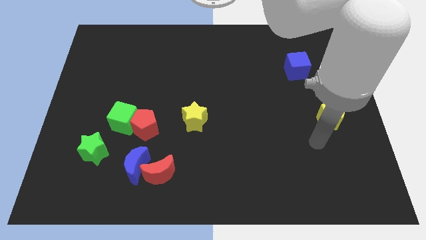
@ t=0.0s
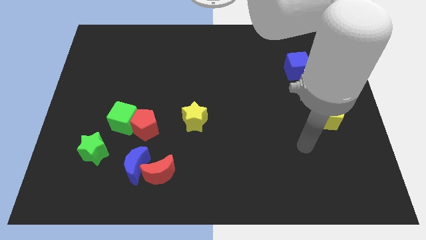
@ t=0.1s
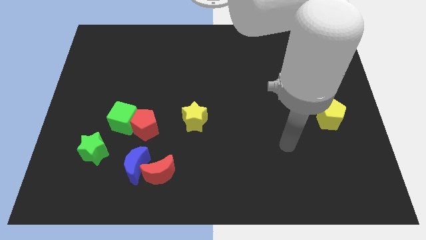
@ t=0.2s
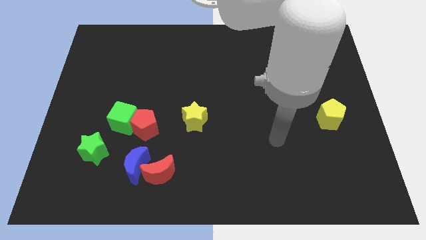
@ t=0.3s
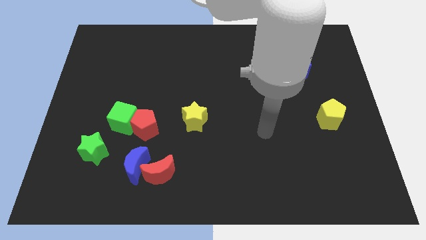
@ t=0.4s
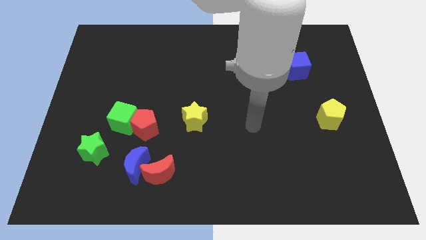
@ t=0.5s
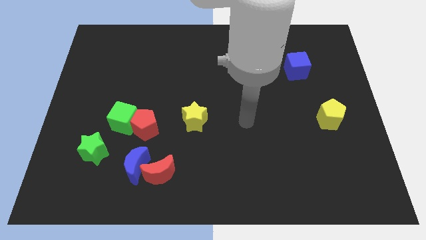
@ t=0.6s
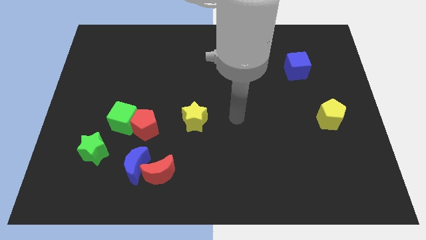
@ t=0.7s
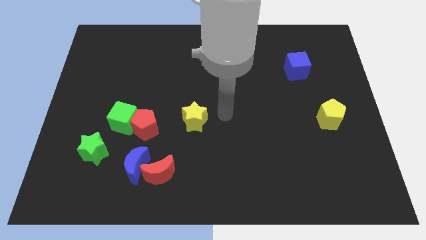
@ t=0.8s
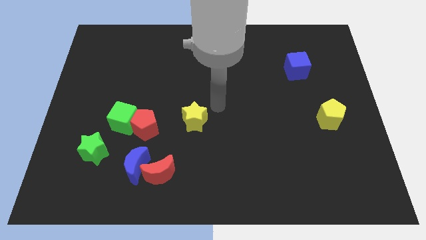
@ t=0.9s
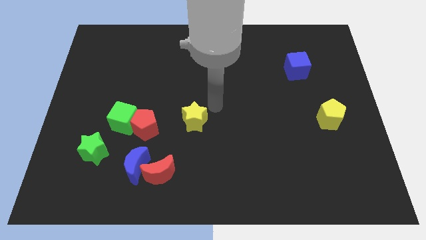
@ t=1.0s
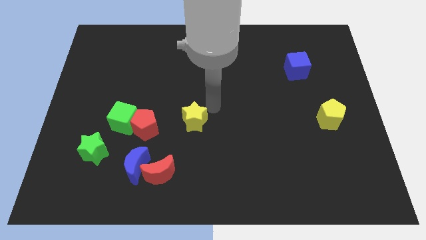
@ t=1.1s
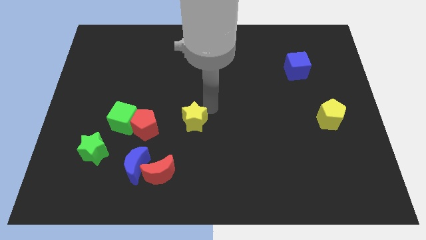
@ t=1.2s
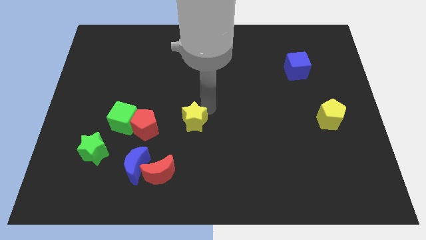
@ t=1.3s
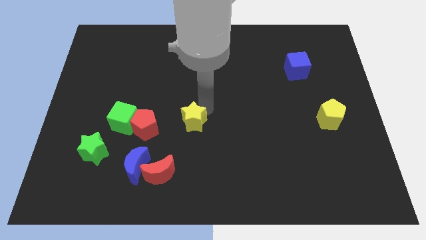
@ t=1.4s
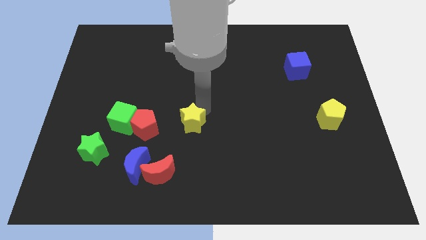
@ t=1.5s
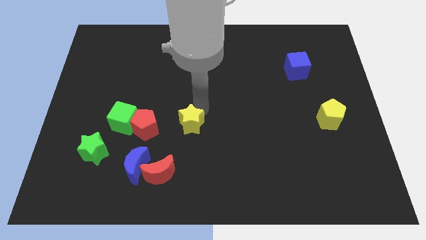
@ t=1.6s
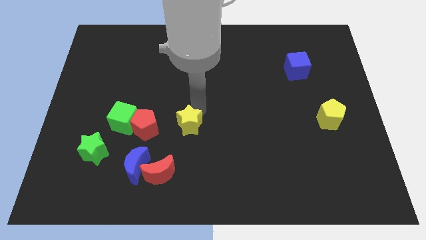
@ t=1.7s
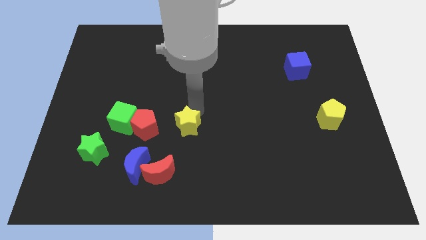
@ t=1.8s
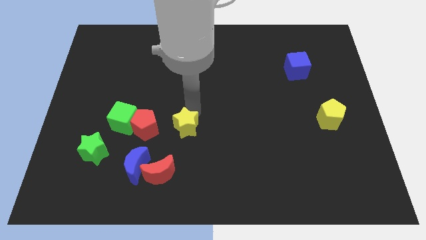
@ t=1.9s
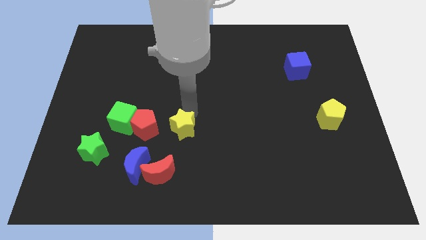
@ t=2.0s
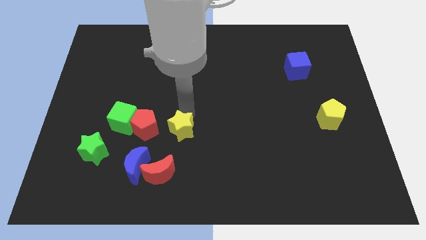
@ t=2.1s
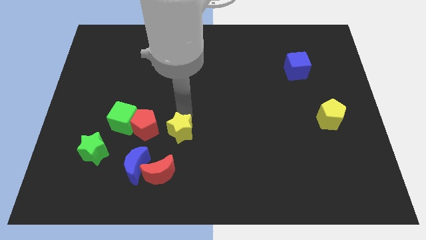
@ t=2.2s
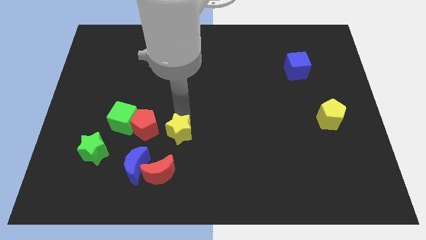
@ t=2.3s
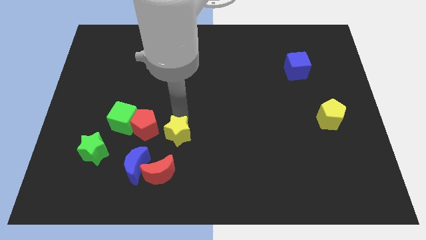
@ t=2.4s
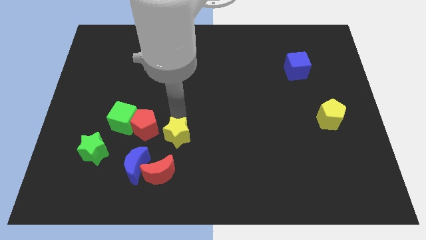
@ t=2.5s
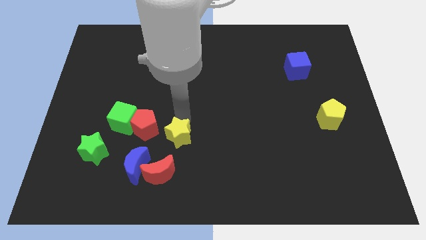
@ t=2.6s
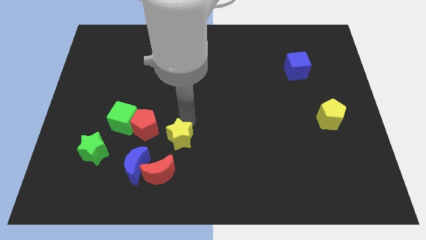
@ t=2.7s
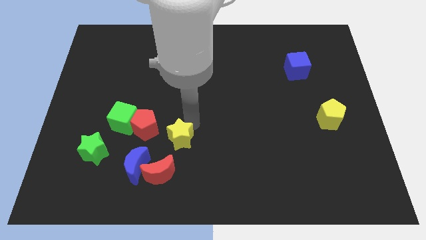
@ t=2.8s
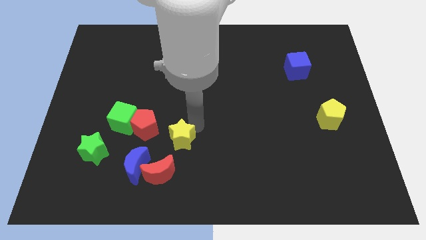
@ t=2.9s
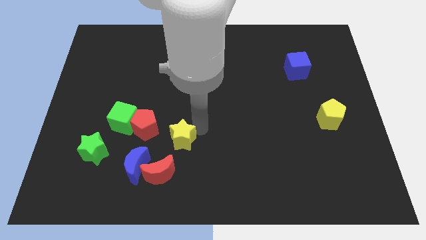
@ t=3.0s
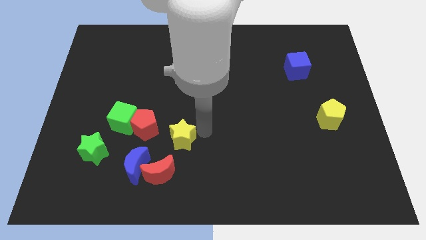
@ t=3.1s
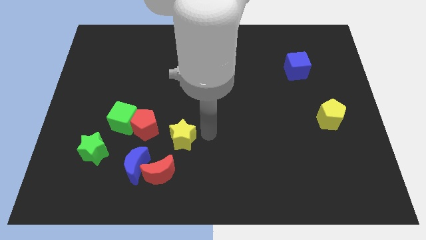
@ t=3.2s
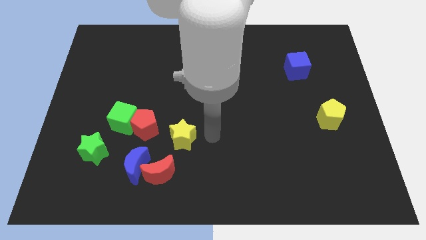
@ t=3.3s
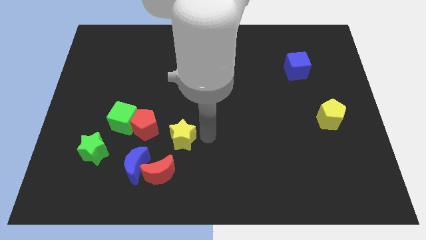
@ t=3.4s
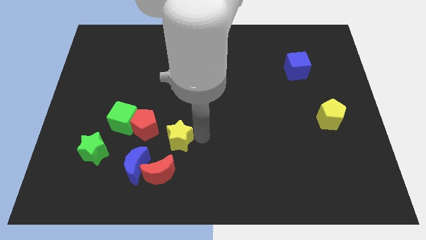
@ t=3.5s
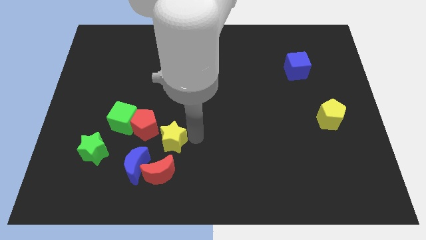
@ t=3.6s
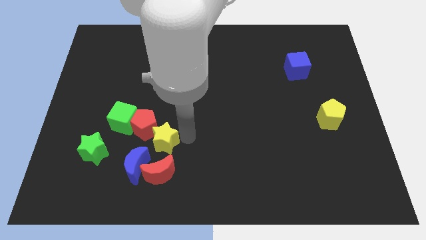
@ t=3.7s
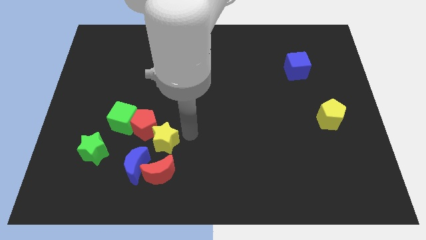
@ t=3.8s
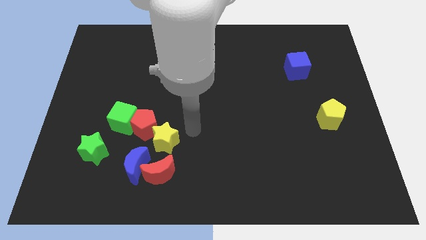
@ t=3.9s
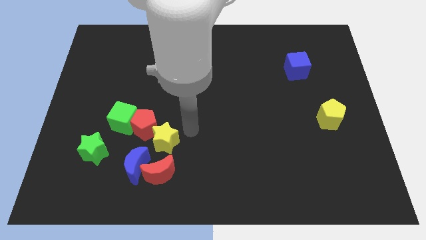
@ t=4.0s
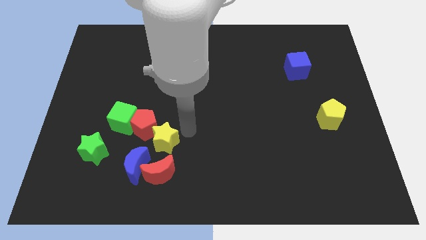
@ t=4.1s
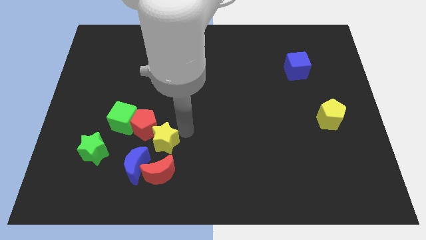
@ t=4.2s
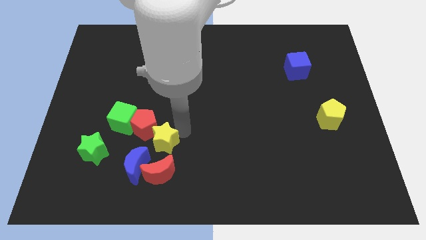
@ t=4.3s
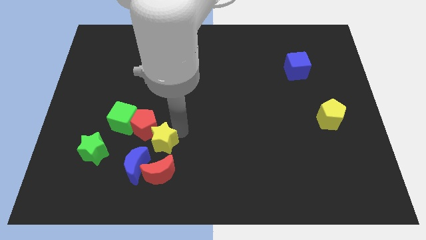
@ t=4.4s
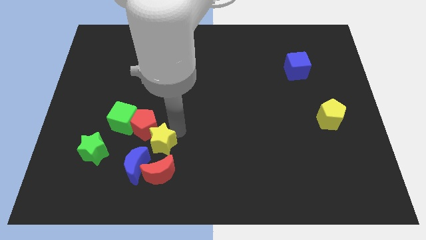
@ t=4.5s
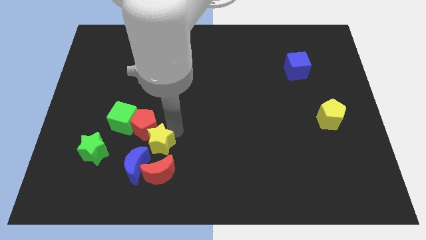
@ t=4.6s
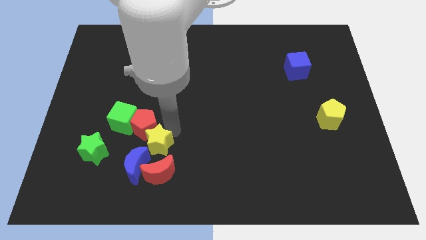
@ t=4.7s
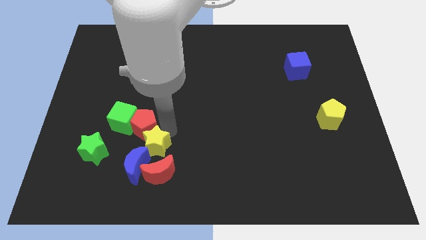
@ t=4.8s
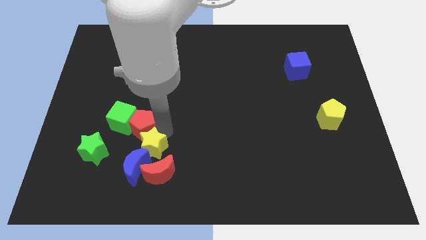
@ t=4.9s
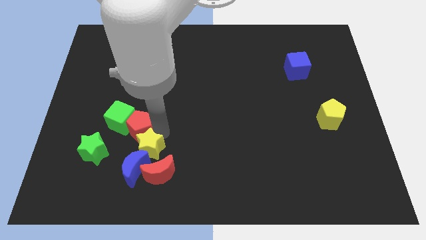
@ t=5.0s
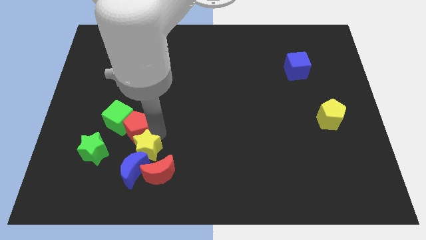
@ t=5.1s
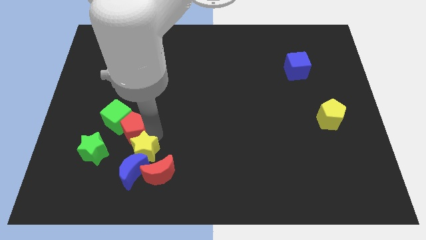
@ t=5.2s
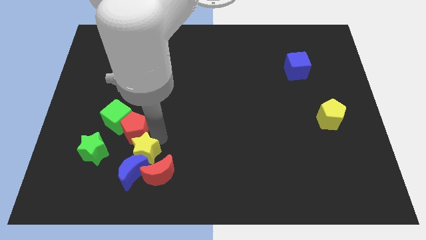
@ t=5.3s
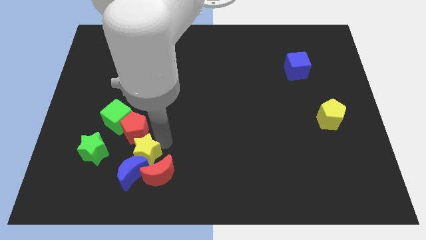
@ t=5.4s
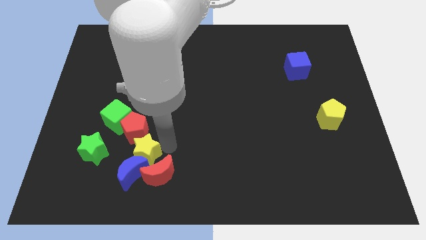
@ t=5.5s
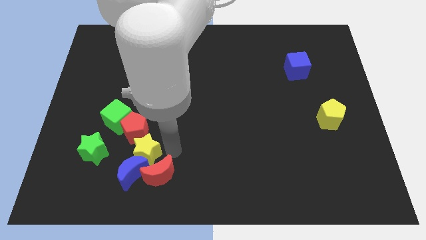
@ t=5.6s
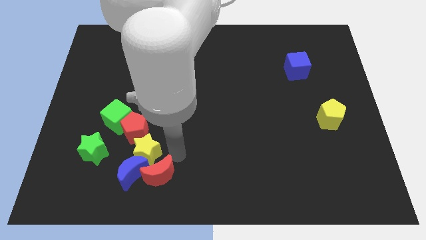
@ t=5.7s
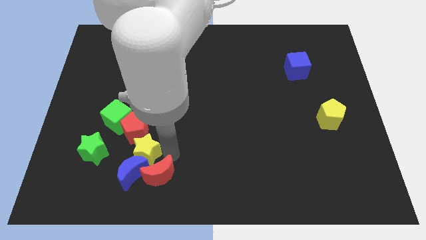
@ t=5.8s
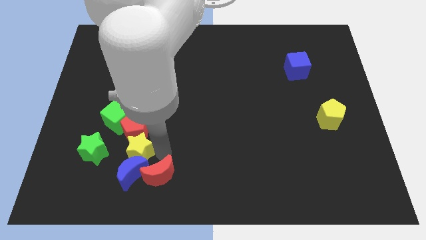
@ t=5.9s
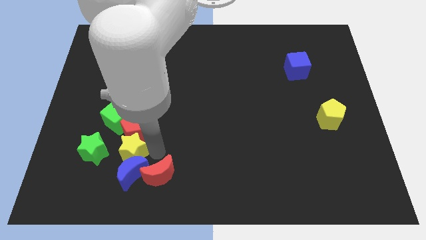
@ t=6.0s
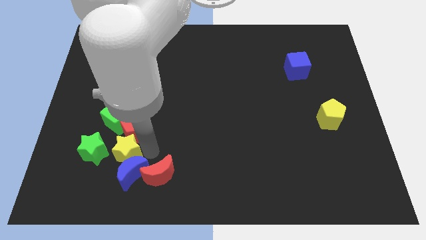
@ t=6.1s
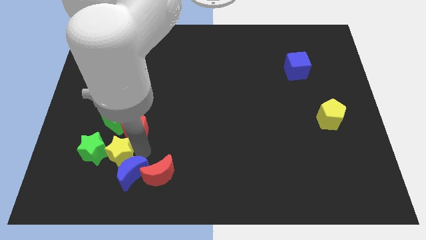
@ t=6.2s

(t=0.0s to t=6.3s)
put the yellow star towards the green star

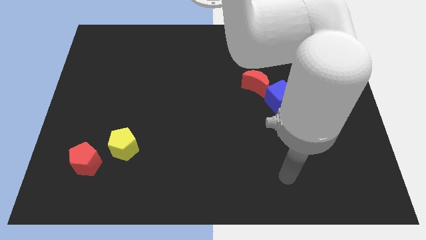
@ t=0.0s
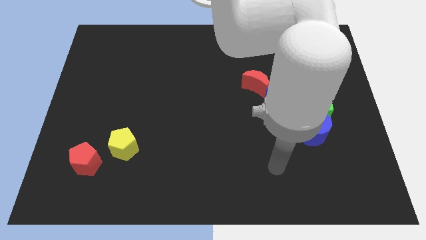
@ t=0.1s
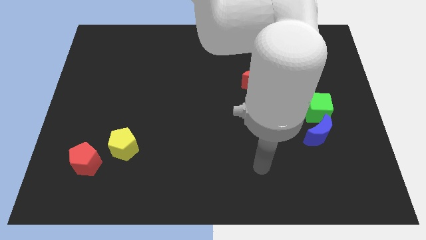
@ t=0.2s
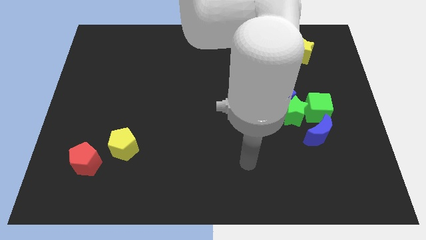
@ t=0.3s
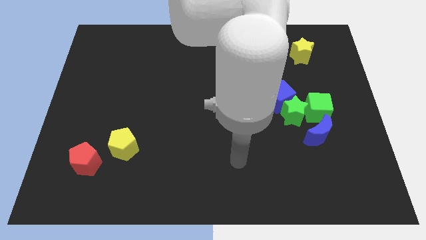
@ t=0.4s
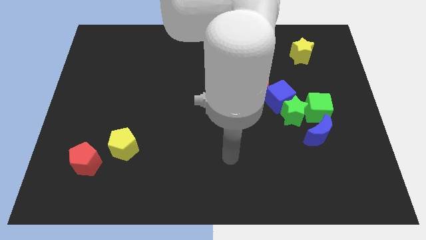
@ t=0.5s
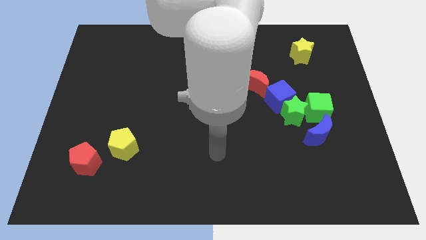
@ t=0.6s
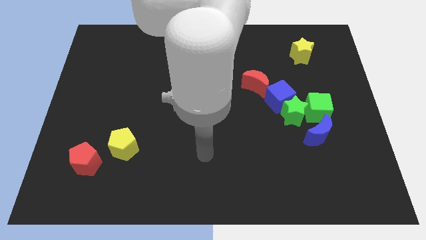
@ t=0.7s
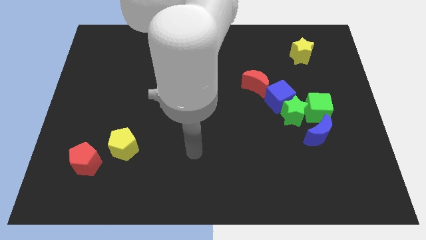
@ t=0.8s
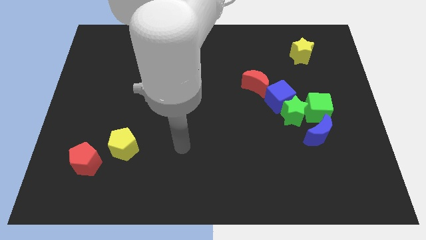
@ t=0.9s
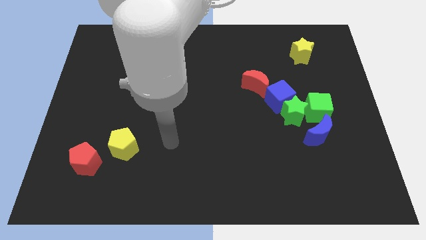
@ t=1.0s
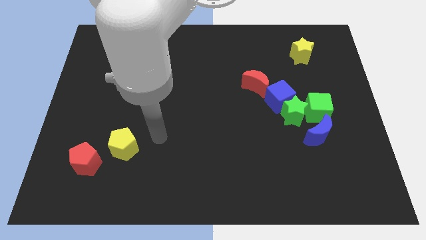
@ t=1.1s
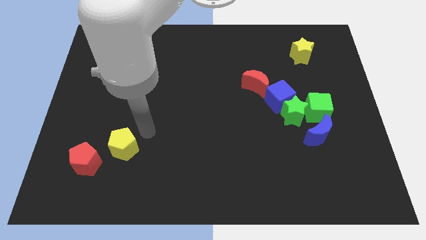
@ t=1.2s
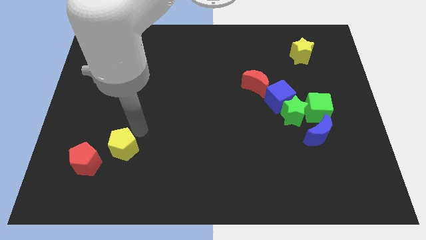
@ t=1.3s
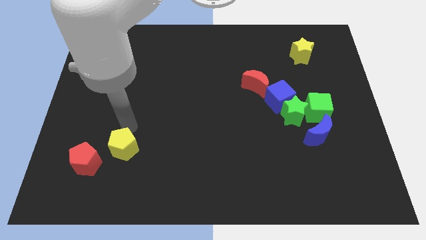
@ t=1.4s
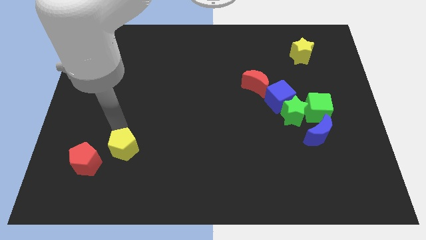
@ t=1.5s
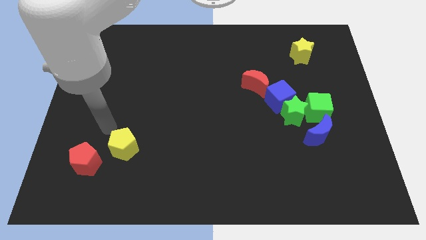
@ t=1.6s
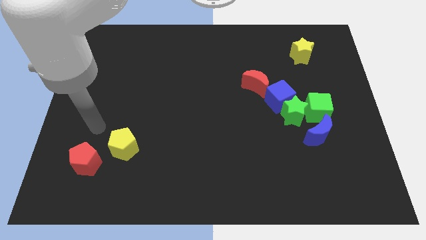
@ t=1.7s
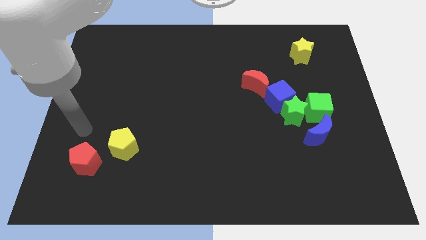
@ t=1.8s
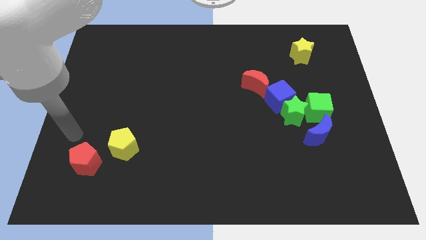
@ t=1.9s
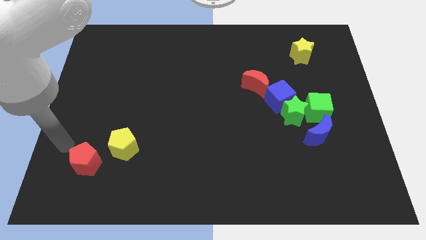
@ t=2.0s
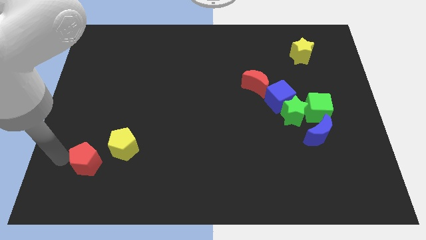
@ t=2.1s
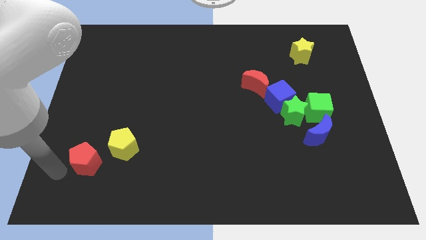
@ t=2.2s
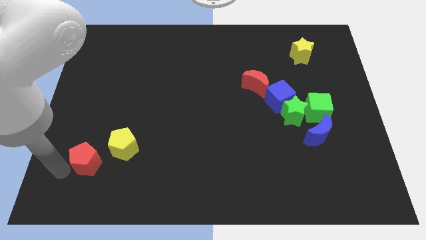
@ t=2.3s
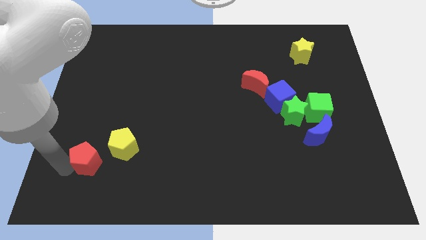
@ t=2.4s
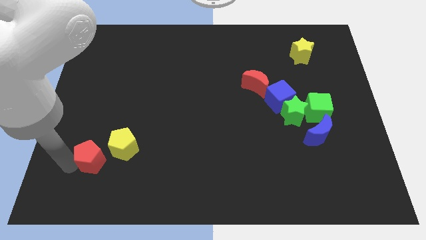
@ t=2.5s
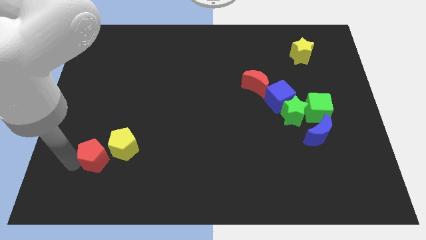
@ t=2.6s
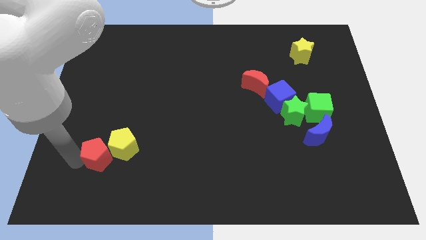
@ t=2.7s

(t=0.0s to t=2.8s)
put the red pentagon towards the yellow pentagon
